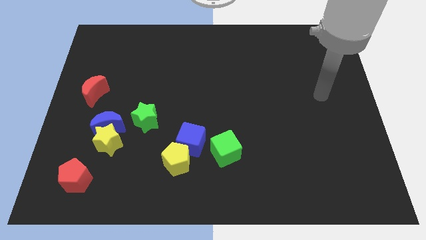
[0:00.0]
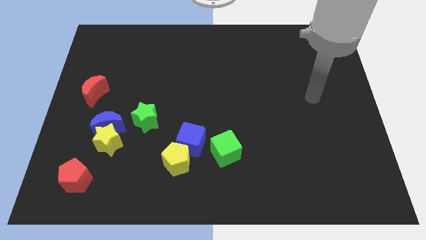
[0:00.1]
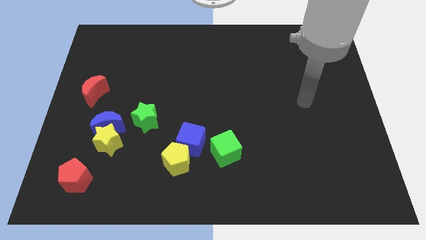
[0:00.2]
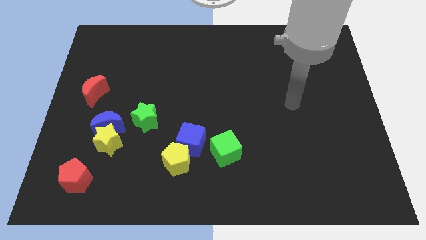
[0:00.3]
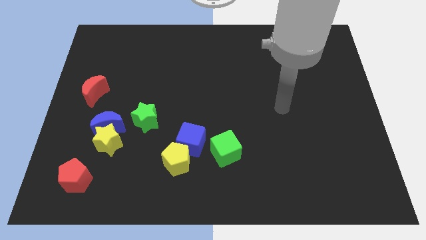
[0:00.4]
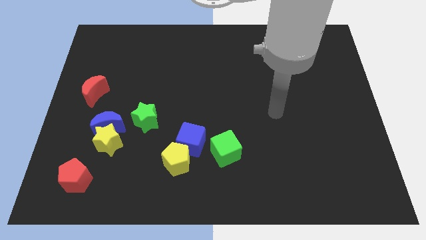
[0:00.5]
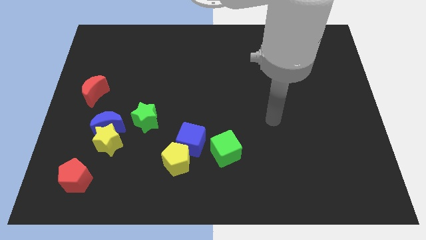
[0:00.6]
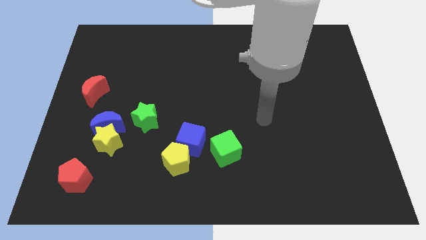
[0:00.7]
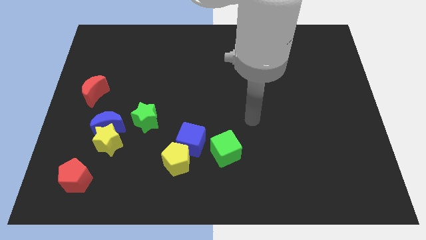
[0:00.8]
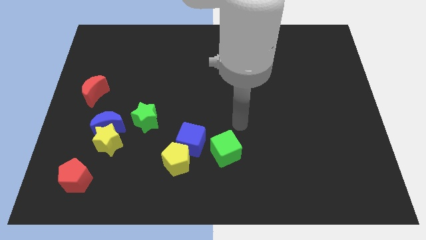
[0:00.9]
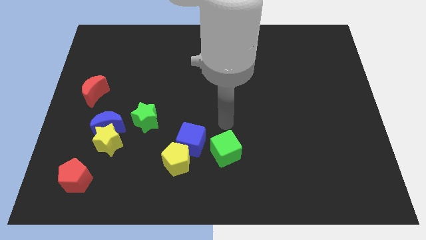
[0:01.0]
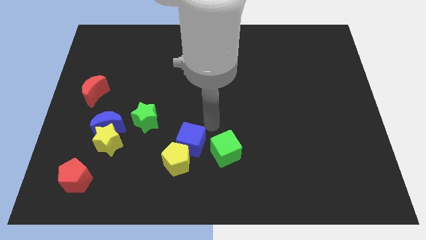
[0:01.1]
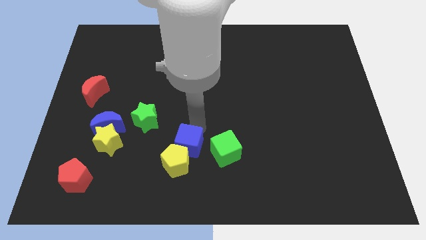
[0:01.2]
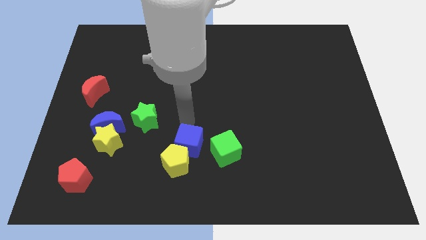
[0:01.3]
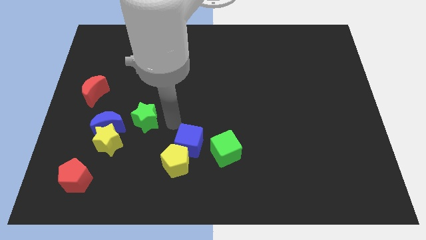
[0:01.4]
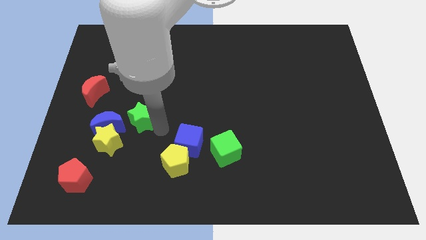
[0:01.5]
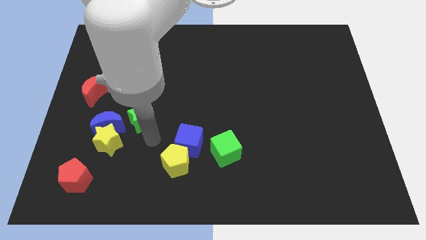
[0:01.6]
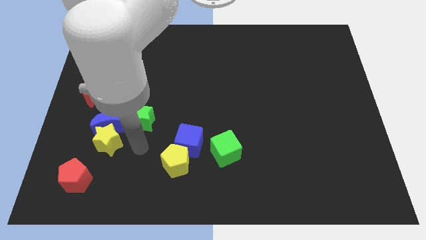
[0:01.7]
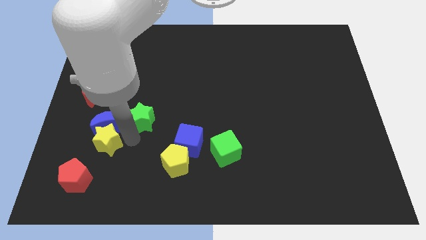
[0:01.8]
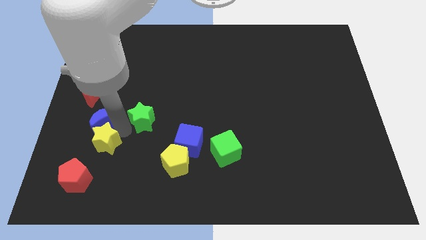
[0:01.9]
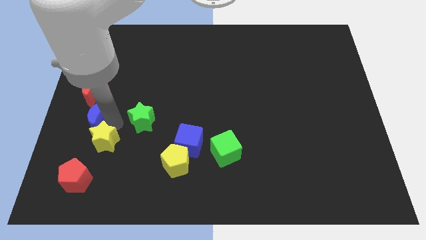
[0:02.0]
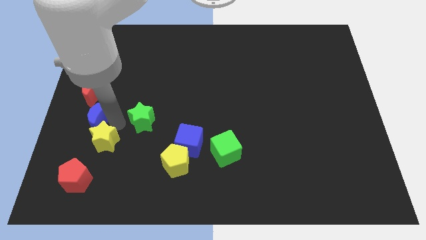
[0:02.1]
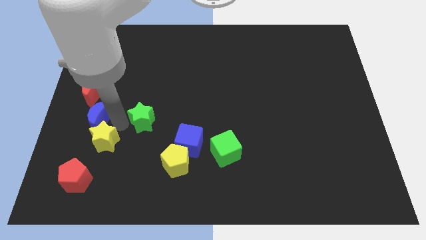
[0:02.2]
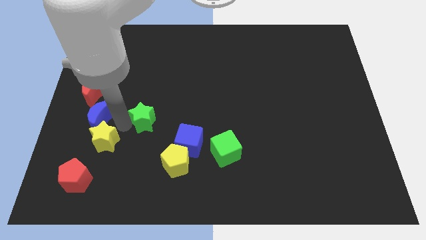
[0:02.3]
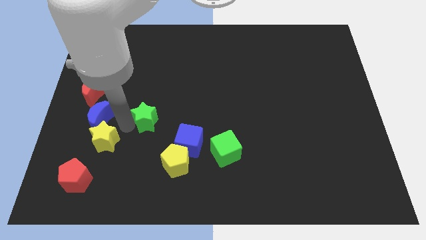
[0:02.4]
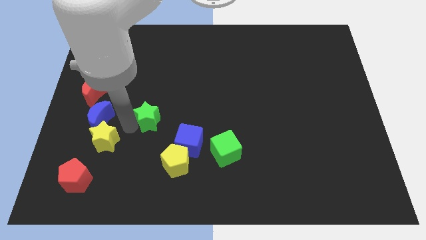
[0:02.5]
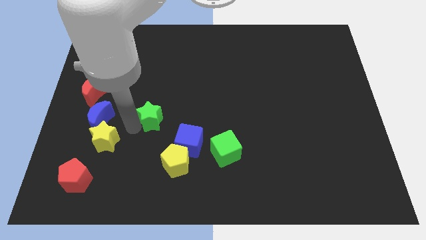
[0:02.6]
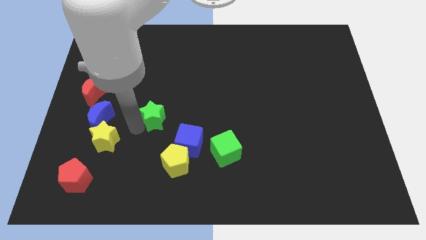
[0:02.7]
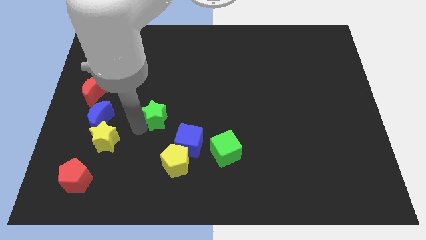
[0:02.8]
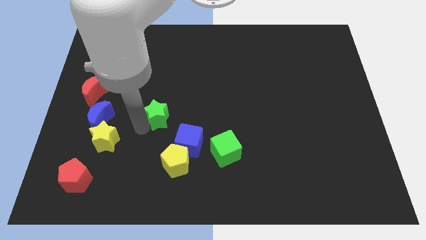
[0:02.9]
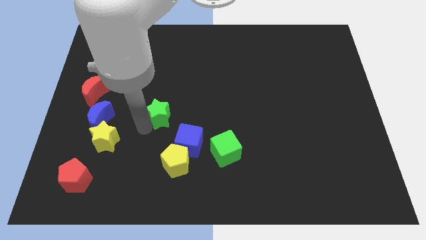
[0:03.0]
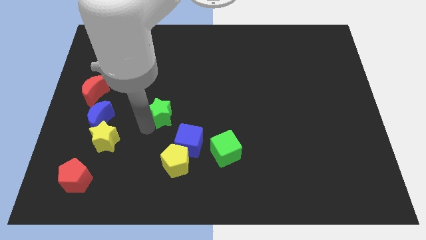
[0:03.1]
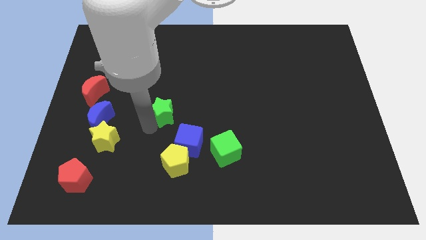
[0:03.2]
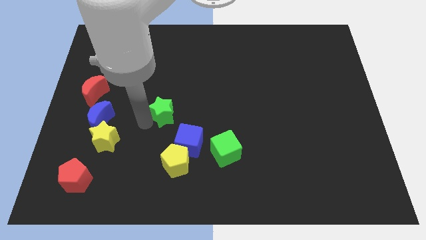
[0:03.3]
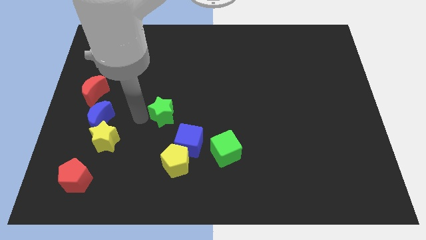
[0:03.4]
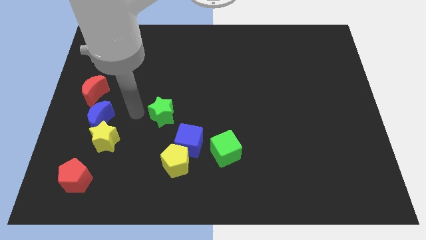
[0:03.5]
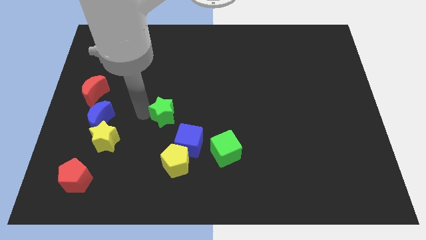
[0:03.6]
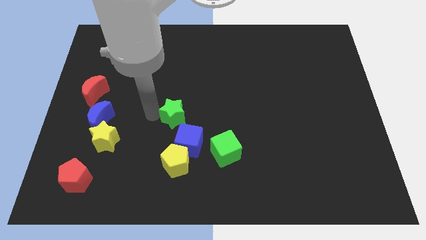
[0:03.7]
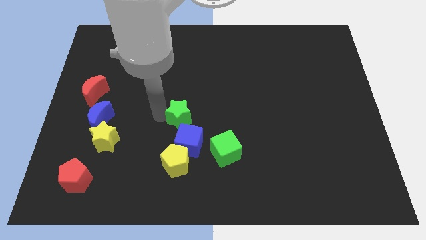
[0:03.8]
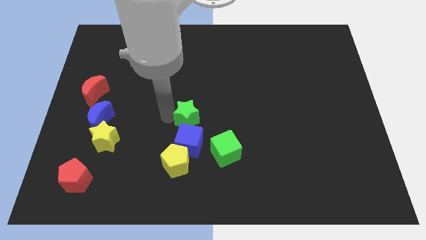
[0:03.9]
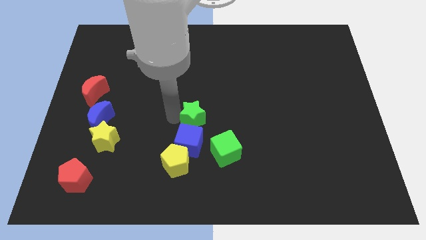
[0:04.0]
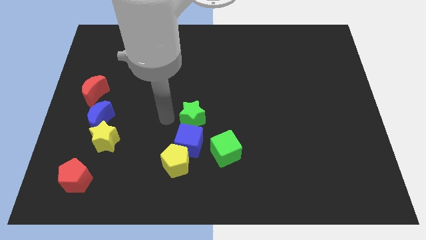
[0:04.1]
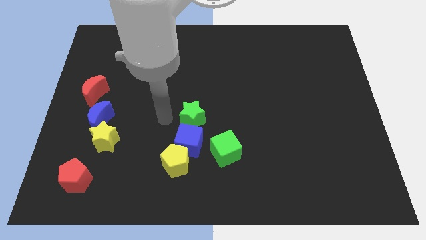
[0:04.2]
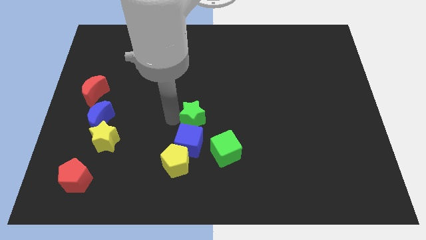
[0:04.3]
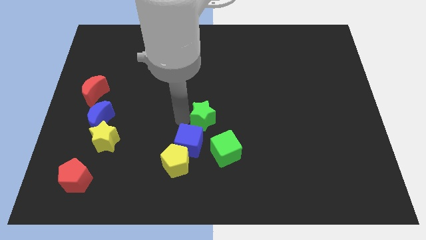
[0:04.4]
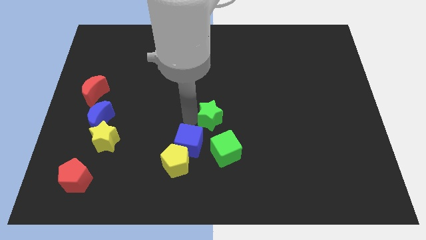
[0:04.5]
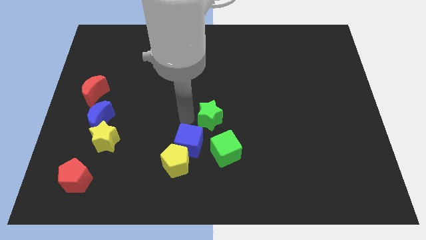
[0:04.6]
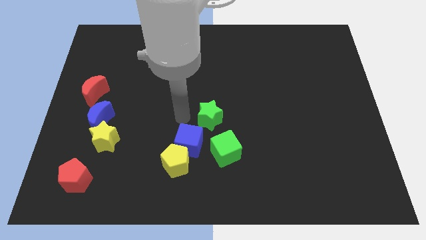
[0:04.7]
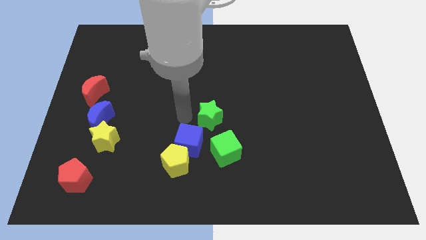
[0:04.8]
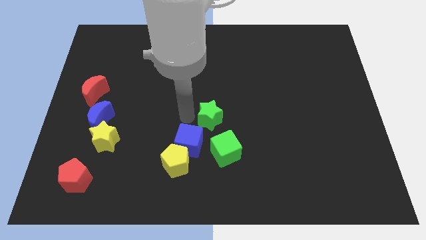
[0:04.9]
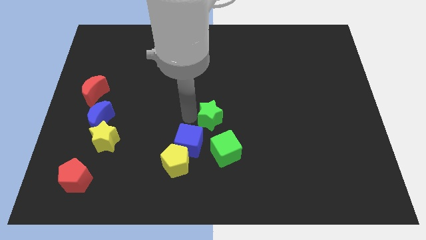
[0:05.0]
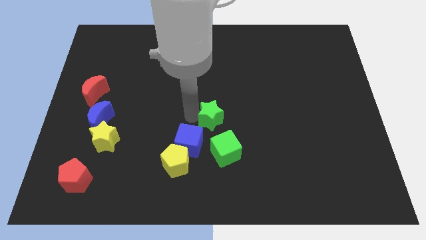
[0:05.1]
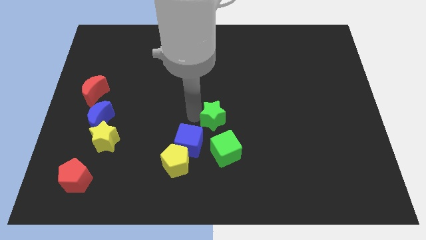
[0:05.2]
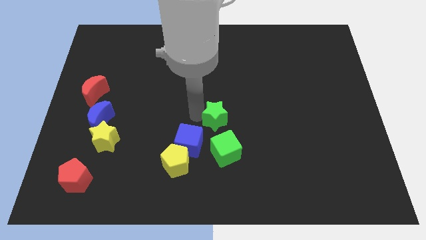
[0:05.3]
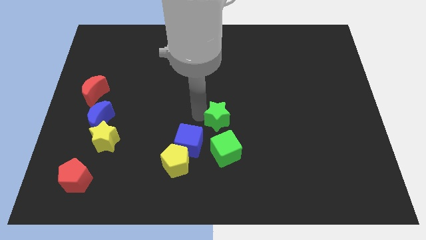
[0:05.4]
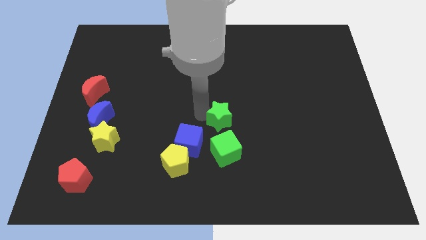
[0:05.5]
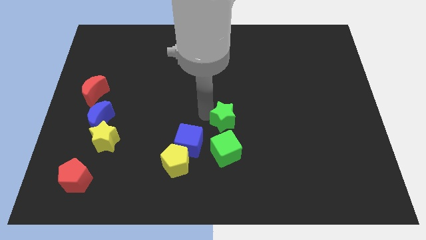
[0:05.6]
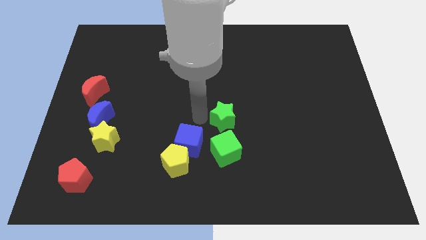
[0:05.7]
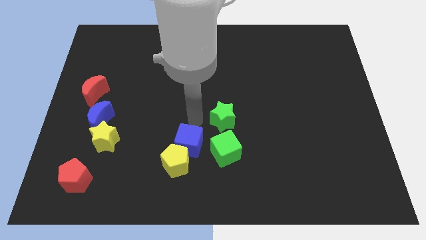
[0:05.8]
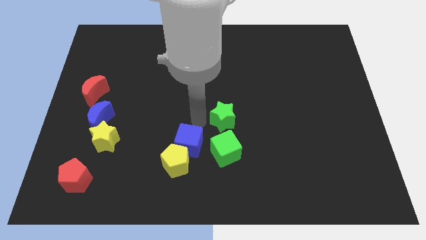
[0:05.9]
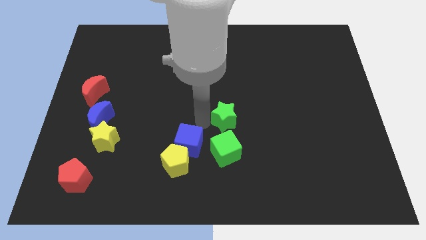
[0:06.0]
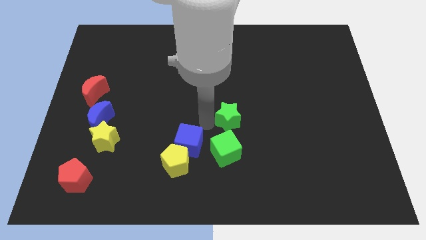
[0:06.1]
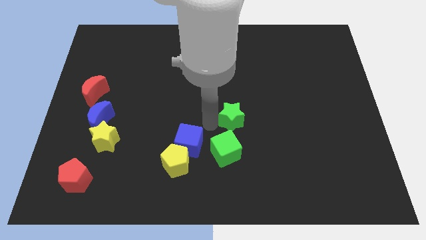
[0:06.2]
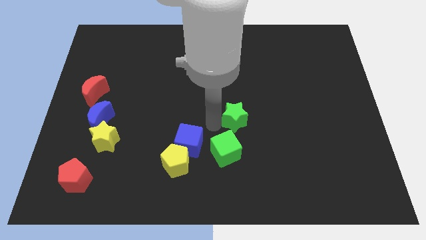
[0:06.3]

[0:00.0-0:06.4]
push the green star right

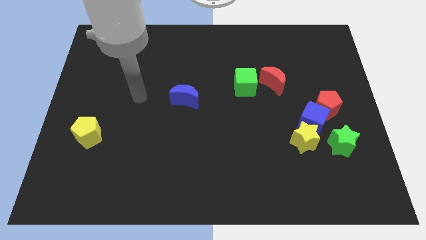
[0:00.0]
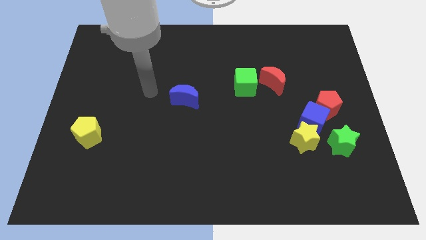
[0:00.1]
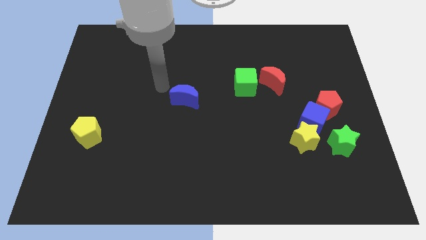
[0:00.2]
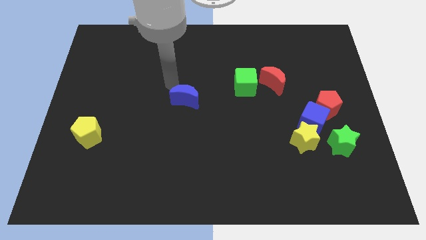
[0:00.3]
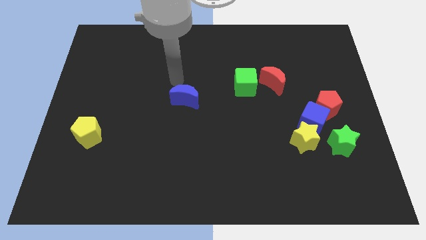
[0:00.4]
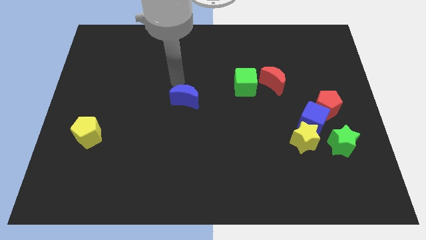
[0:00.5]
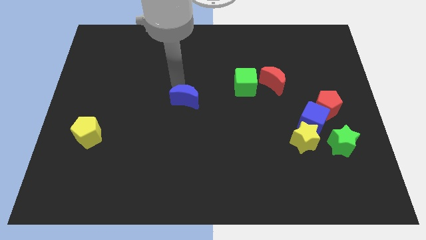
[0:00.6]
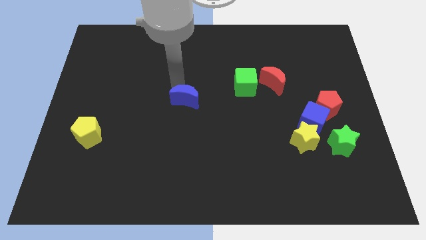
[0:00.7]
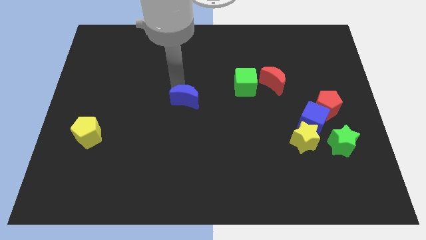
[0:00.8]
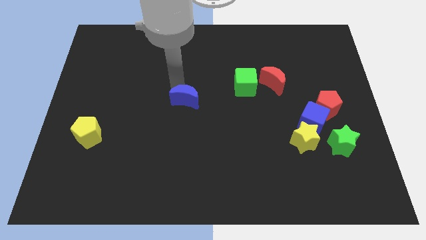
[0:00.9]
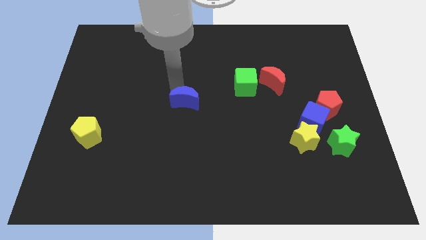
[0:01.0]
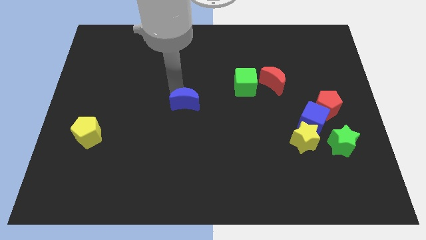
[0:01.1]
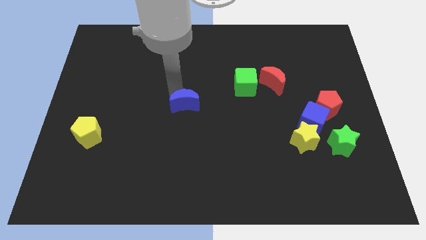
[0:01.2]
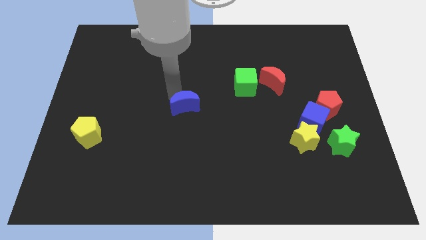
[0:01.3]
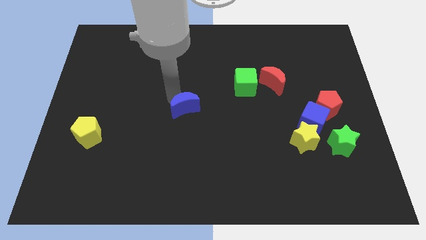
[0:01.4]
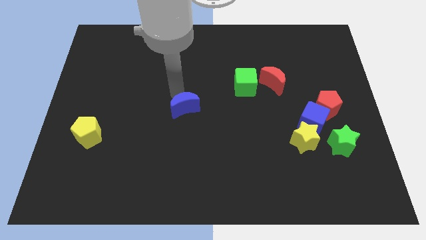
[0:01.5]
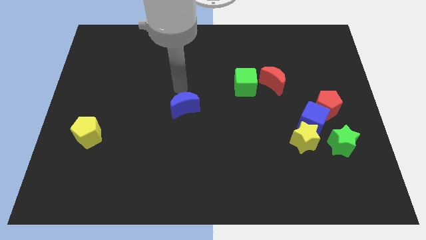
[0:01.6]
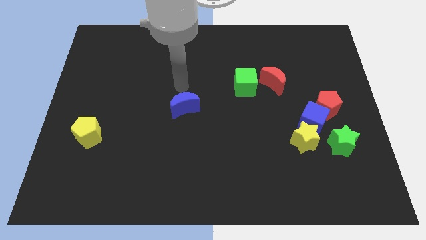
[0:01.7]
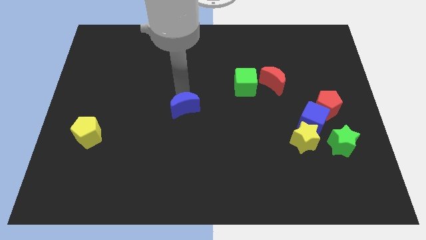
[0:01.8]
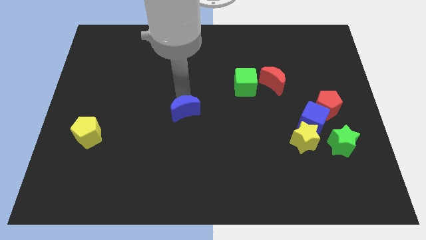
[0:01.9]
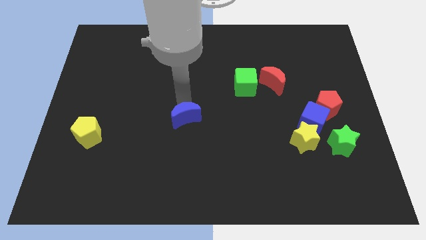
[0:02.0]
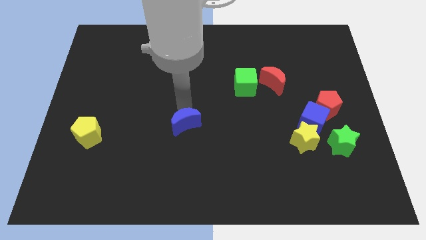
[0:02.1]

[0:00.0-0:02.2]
slide the blue moon a bit down

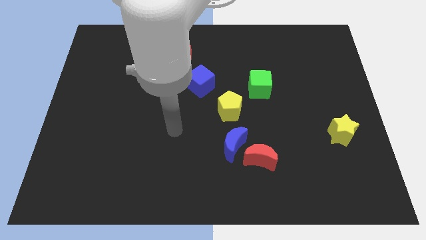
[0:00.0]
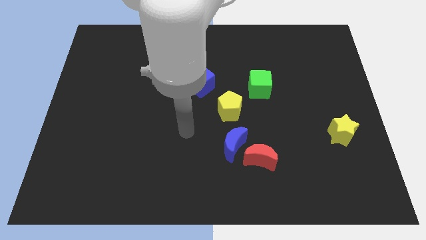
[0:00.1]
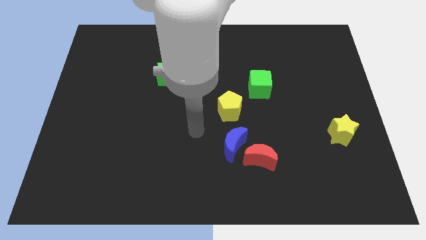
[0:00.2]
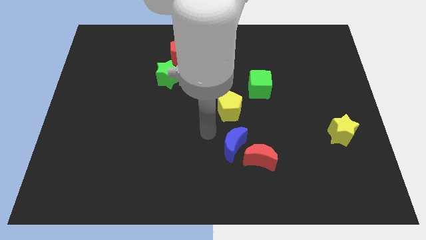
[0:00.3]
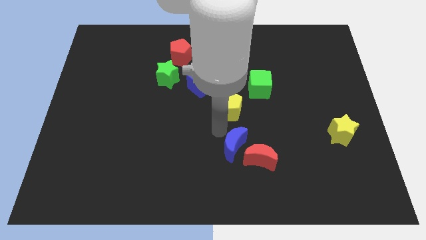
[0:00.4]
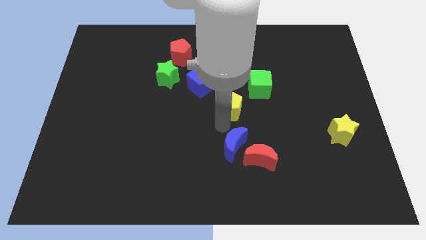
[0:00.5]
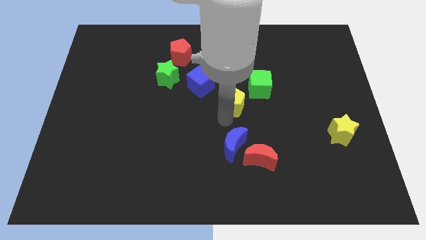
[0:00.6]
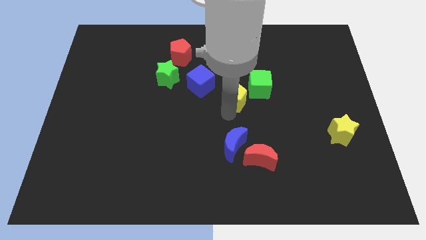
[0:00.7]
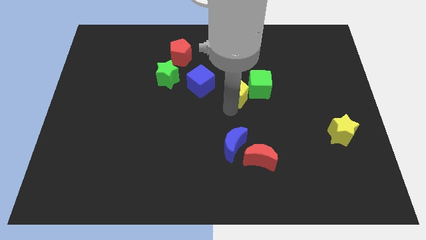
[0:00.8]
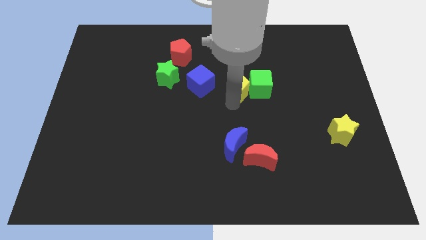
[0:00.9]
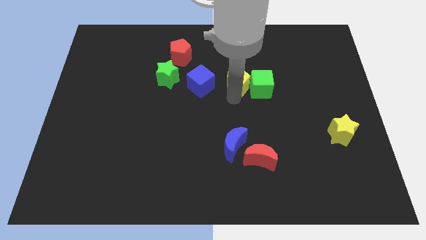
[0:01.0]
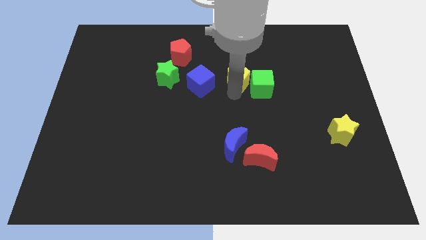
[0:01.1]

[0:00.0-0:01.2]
push the yellow pentagon diagonally up and right somewhat
